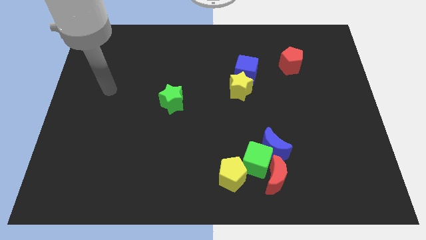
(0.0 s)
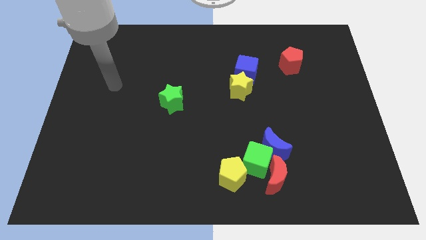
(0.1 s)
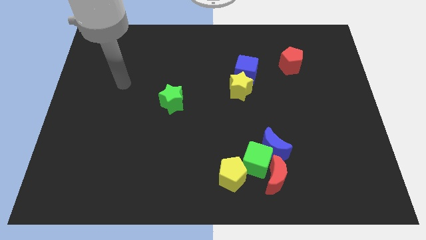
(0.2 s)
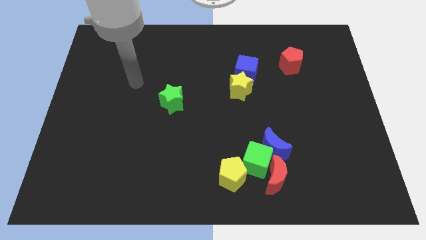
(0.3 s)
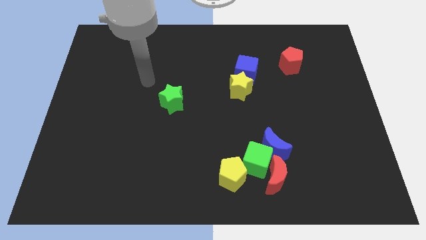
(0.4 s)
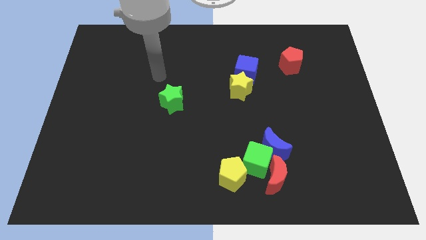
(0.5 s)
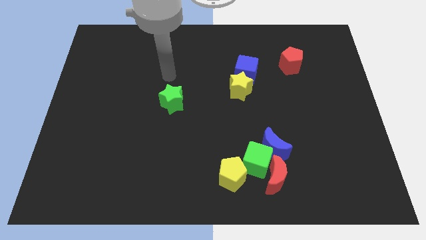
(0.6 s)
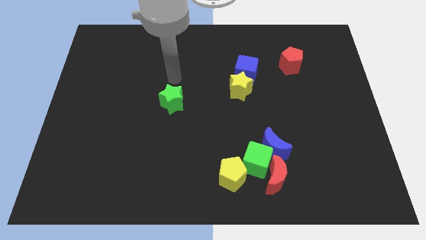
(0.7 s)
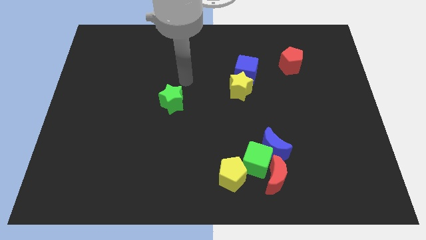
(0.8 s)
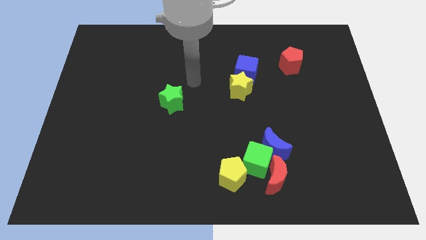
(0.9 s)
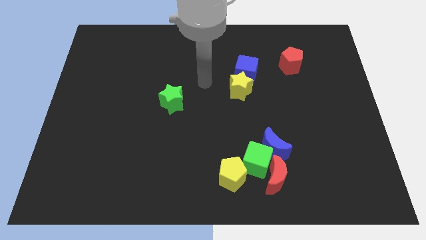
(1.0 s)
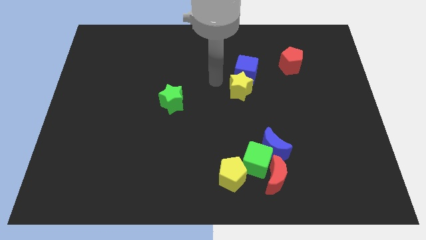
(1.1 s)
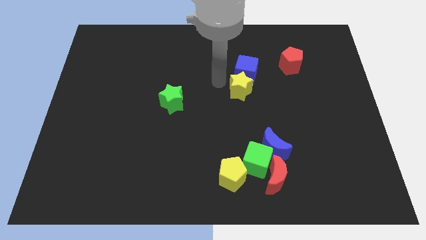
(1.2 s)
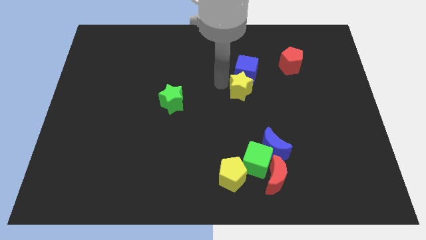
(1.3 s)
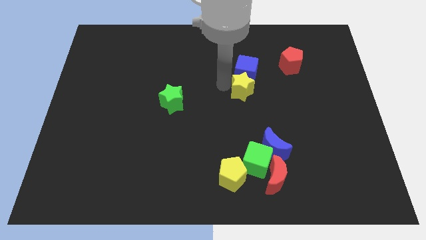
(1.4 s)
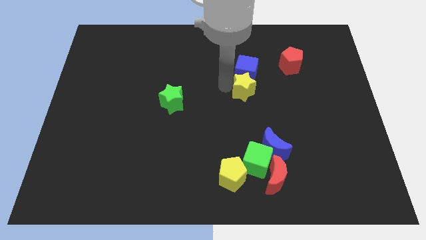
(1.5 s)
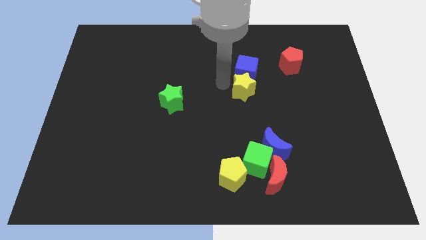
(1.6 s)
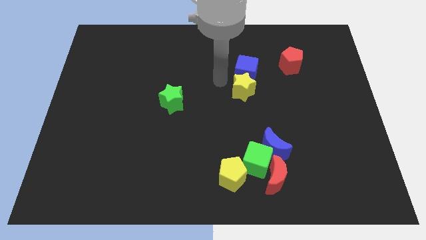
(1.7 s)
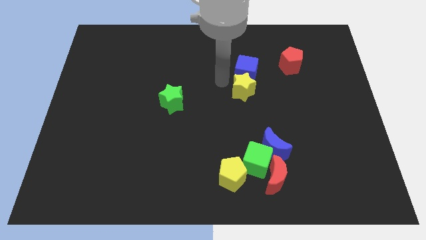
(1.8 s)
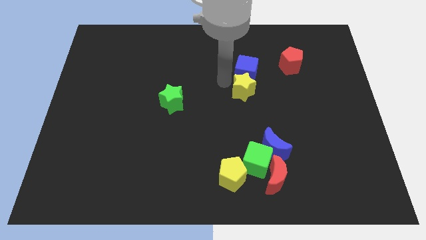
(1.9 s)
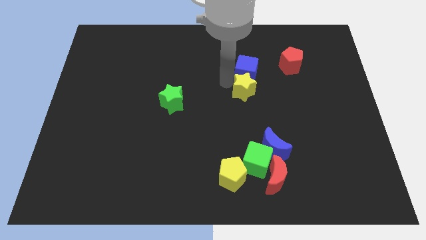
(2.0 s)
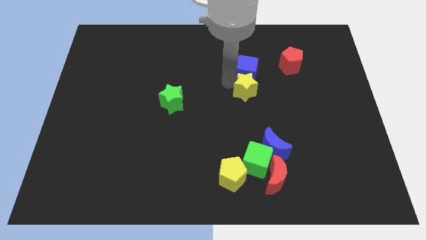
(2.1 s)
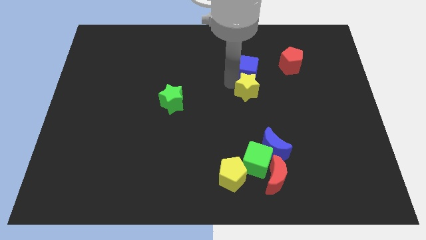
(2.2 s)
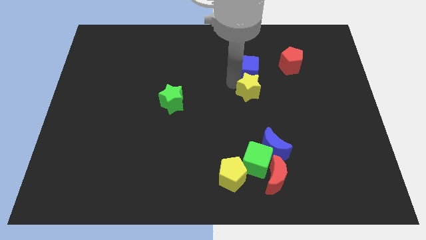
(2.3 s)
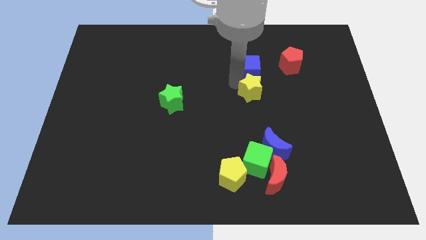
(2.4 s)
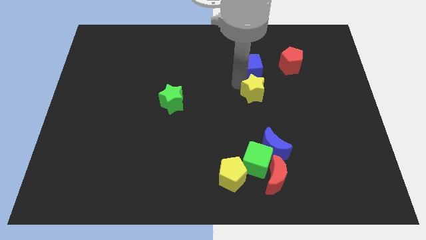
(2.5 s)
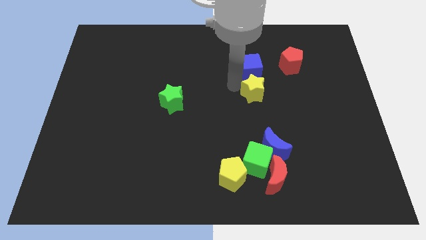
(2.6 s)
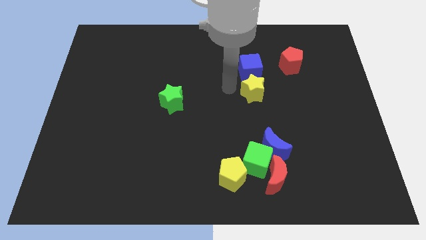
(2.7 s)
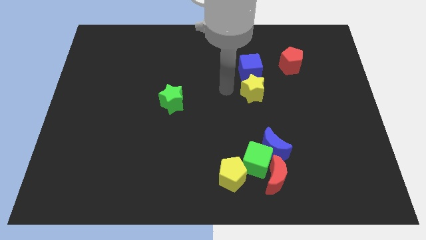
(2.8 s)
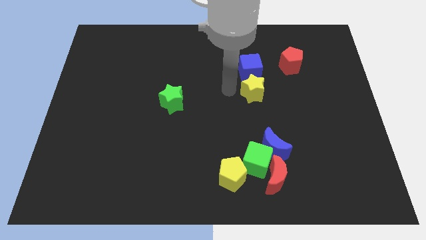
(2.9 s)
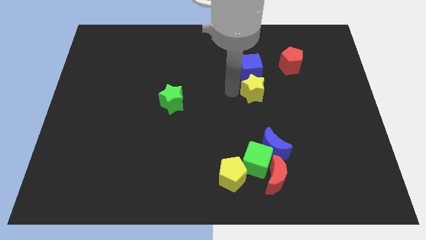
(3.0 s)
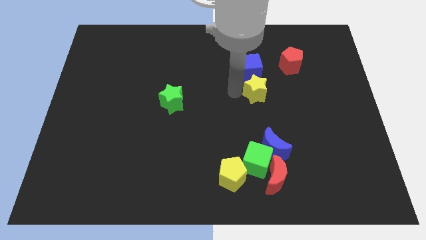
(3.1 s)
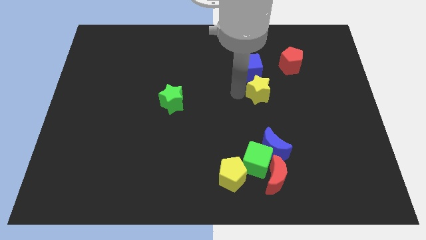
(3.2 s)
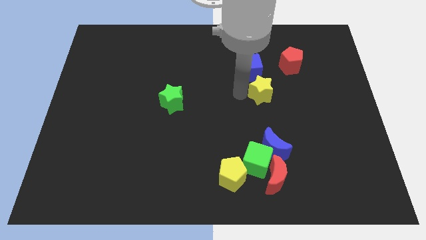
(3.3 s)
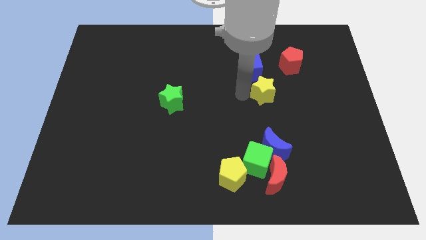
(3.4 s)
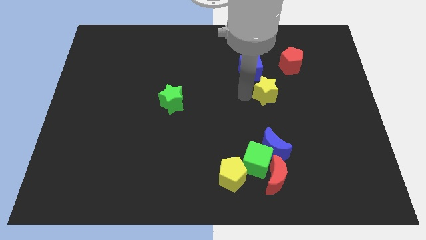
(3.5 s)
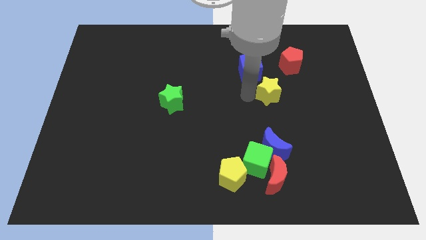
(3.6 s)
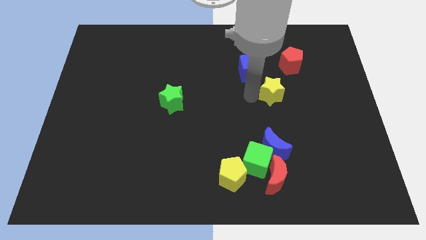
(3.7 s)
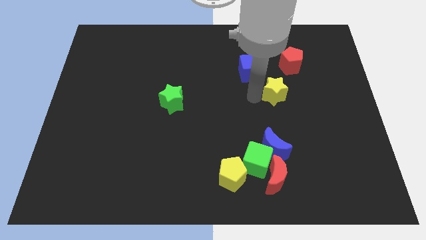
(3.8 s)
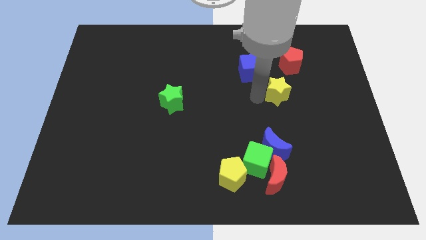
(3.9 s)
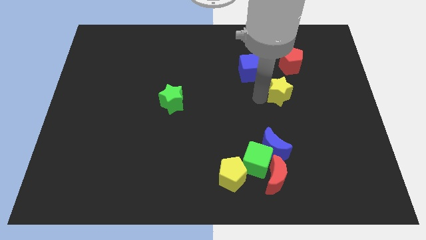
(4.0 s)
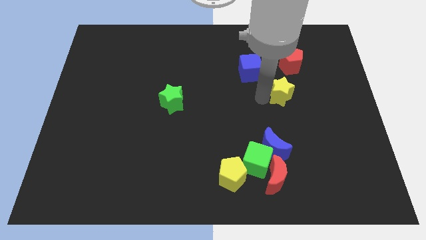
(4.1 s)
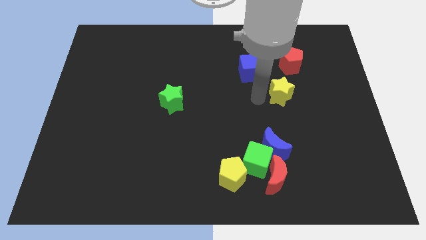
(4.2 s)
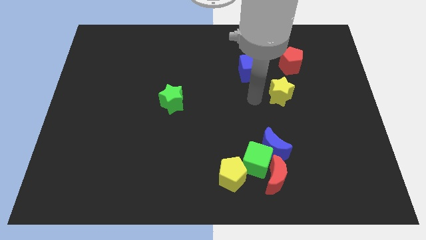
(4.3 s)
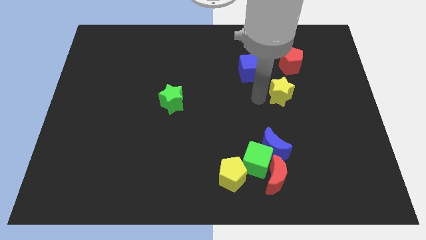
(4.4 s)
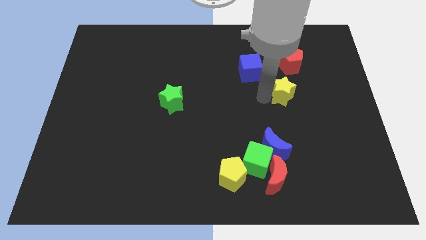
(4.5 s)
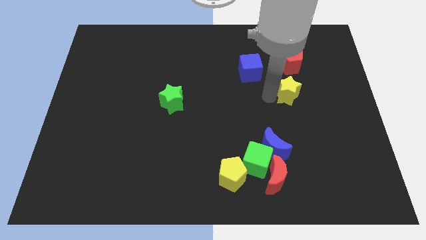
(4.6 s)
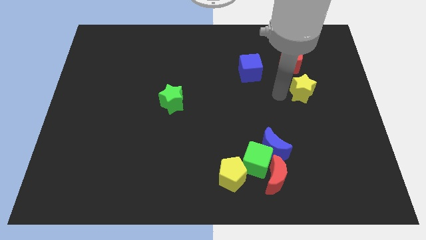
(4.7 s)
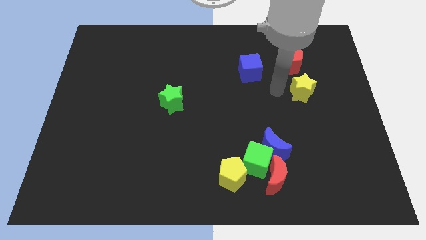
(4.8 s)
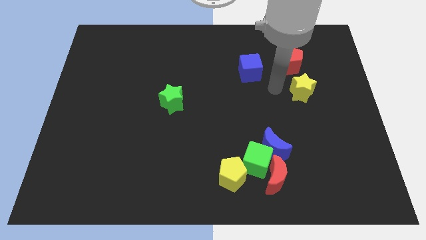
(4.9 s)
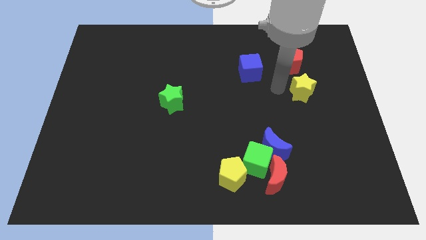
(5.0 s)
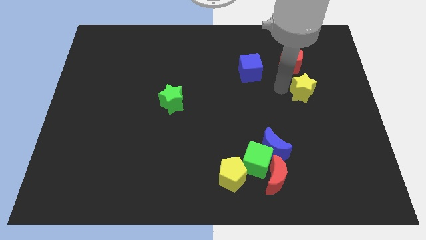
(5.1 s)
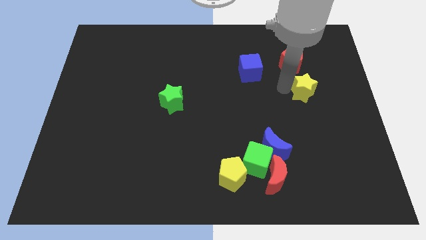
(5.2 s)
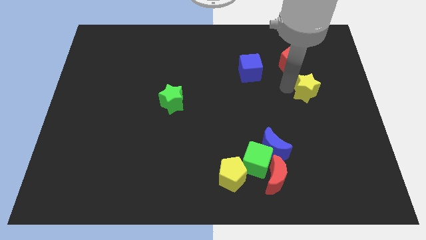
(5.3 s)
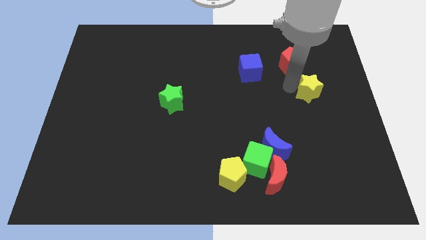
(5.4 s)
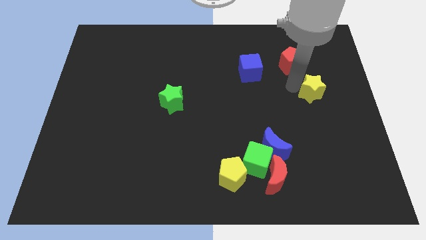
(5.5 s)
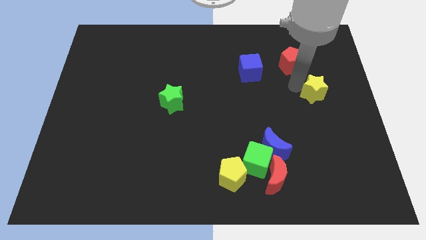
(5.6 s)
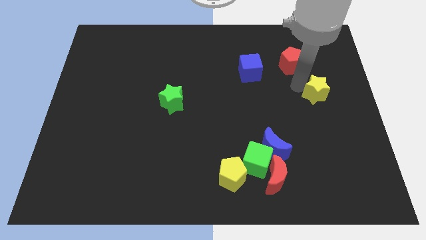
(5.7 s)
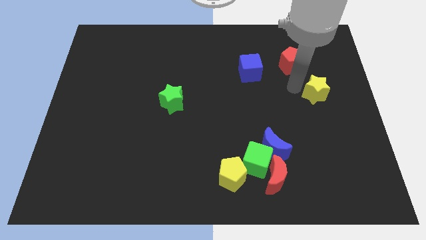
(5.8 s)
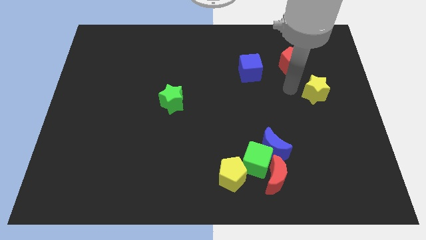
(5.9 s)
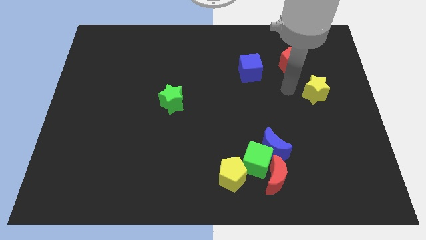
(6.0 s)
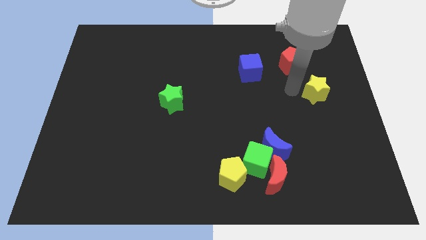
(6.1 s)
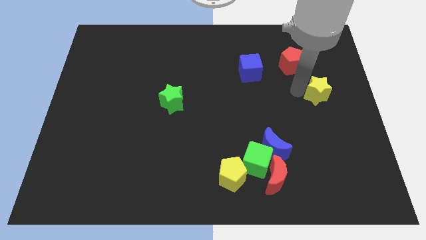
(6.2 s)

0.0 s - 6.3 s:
move the yellow star to the right side of the board

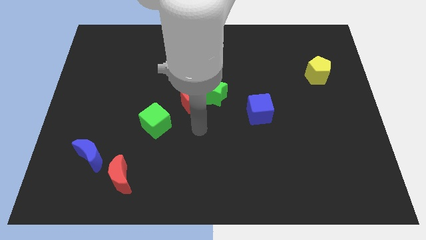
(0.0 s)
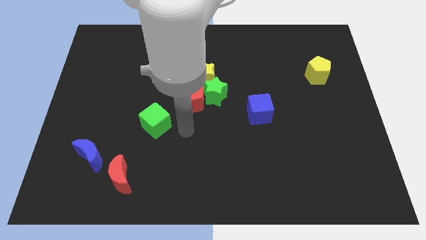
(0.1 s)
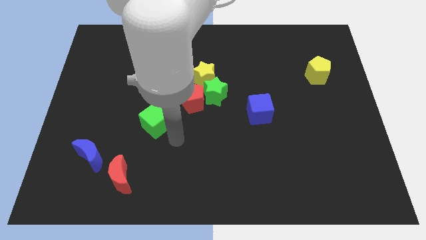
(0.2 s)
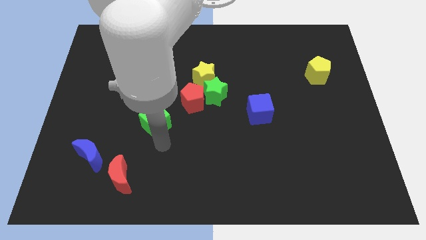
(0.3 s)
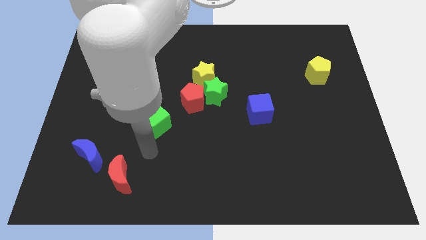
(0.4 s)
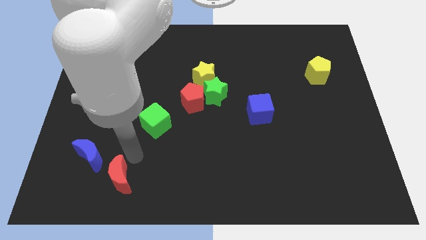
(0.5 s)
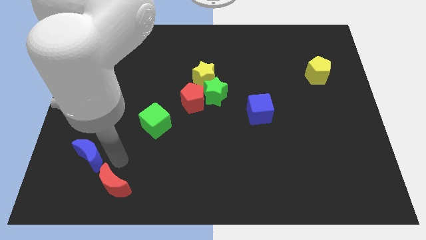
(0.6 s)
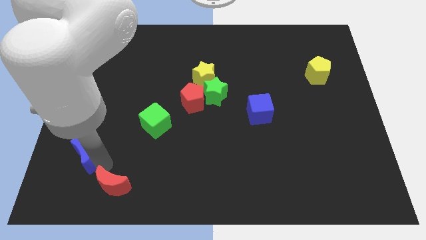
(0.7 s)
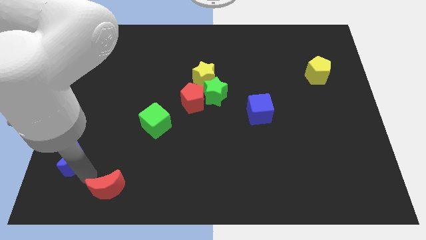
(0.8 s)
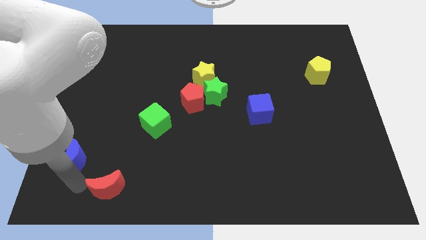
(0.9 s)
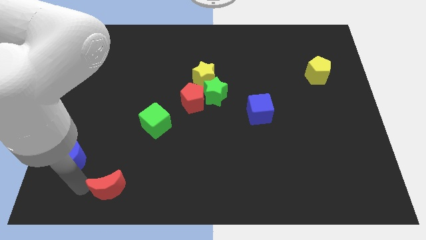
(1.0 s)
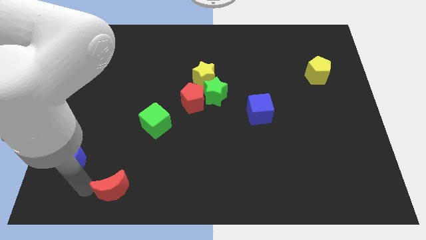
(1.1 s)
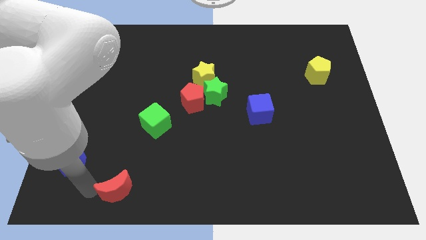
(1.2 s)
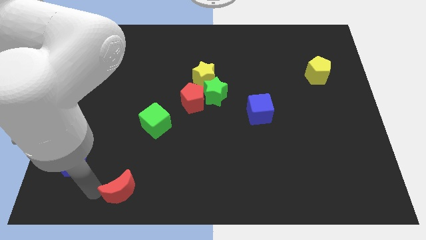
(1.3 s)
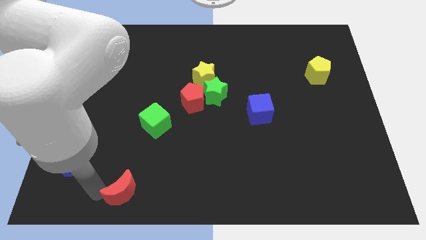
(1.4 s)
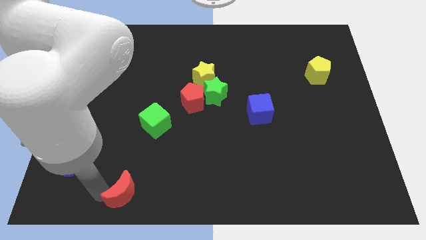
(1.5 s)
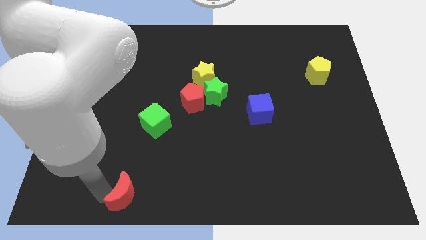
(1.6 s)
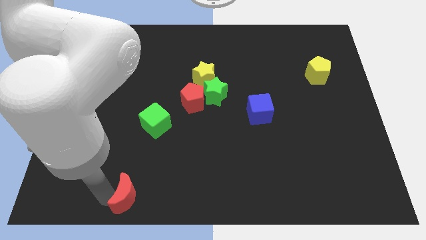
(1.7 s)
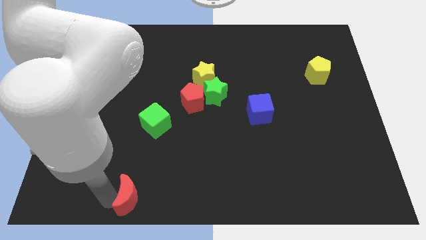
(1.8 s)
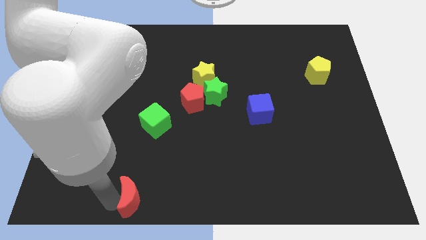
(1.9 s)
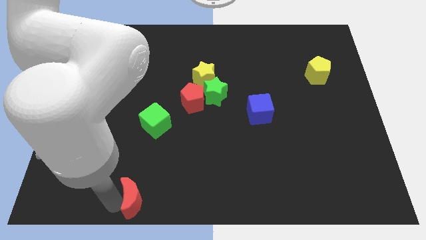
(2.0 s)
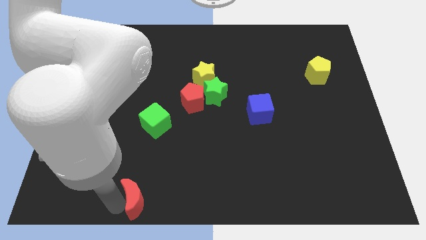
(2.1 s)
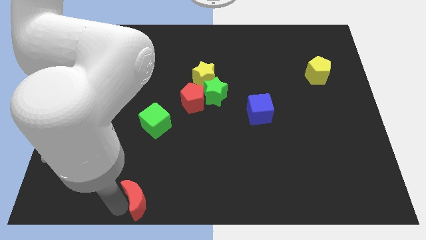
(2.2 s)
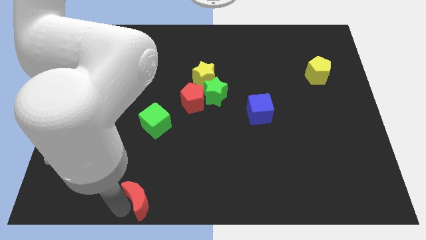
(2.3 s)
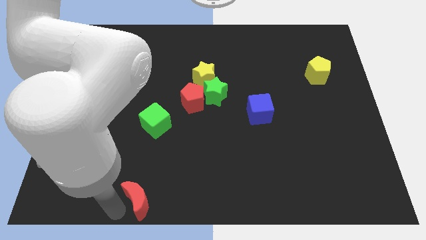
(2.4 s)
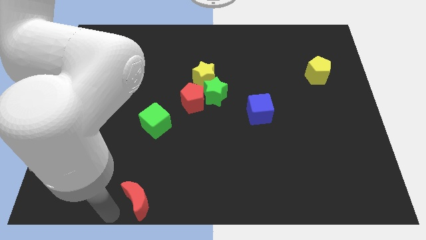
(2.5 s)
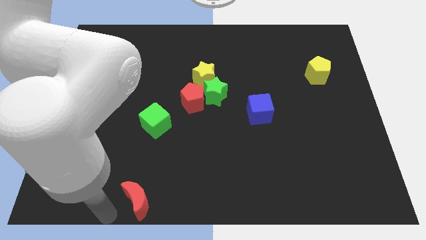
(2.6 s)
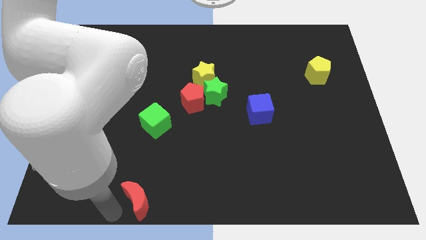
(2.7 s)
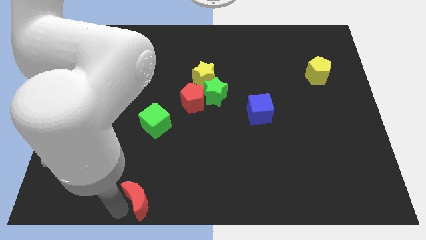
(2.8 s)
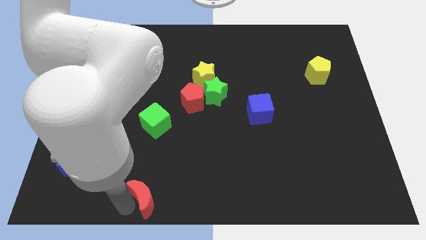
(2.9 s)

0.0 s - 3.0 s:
move the red moon to the bottom
